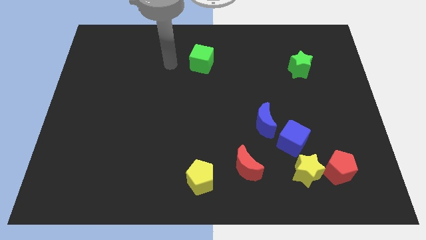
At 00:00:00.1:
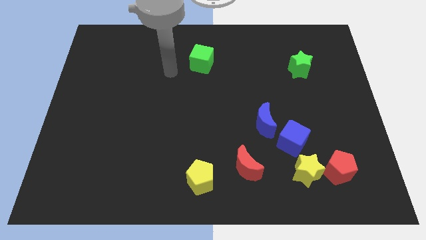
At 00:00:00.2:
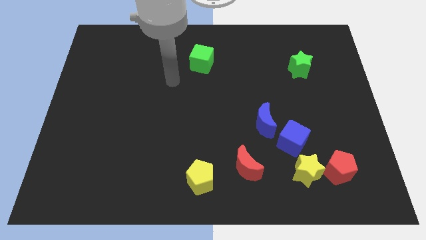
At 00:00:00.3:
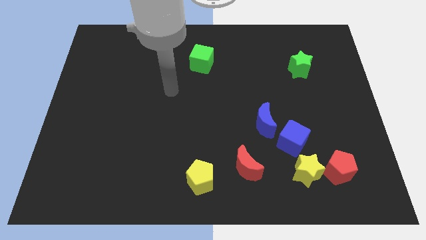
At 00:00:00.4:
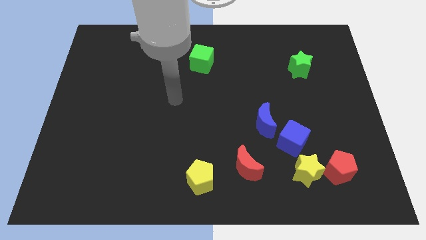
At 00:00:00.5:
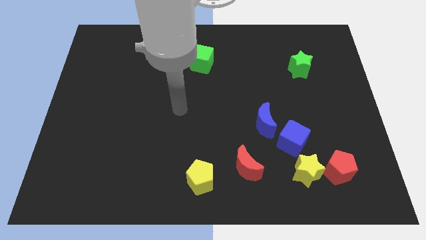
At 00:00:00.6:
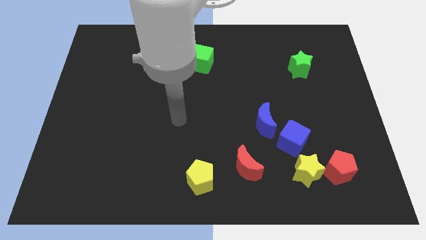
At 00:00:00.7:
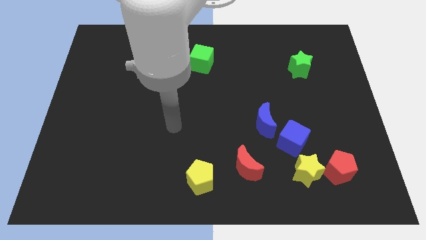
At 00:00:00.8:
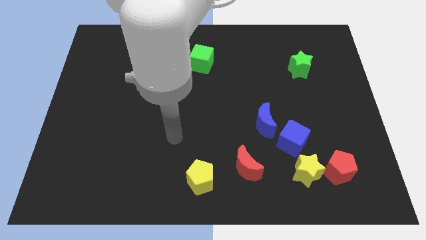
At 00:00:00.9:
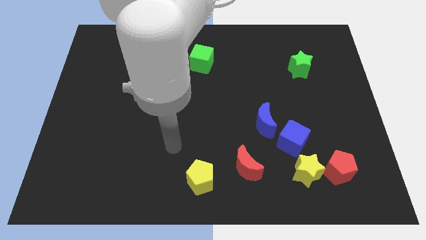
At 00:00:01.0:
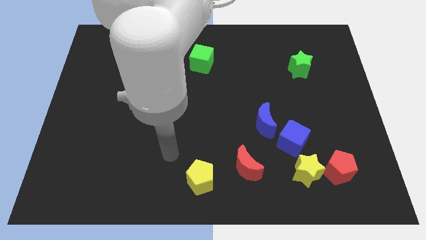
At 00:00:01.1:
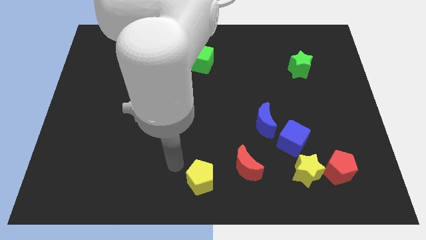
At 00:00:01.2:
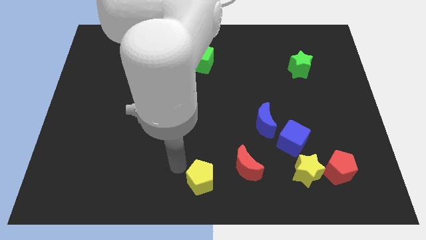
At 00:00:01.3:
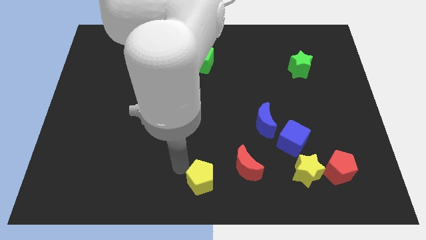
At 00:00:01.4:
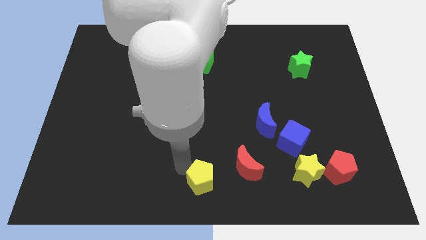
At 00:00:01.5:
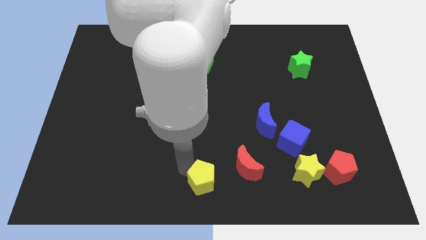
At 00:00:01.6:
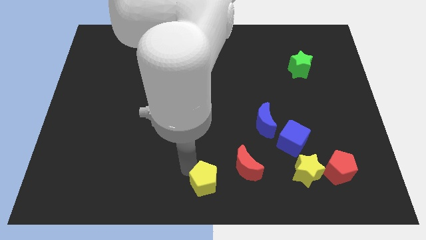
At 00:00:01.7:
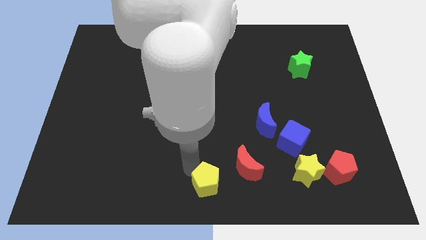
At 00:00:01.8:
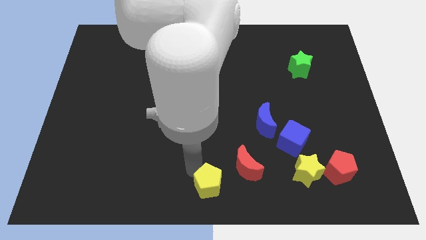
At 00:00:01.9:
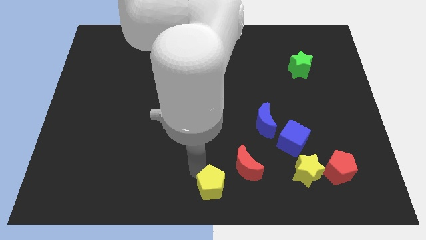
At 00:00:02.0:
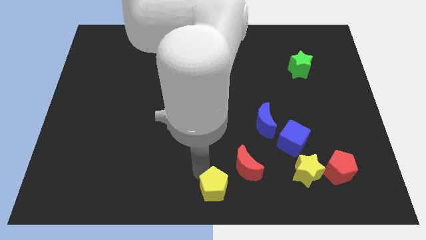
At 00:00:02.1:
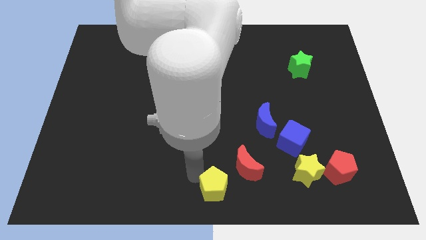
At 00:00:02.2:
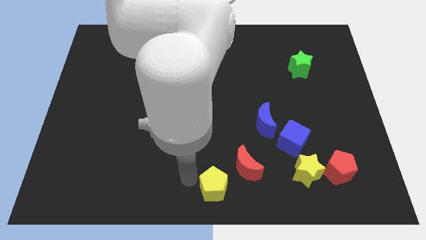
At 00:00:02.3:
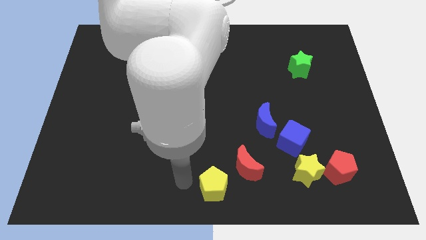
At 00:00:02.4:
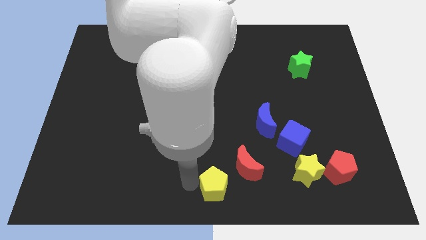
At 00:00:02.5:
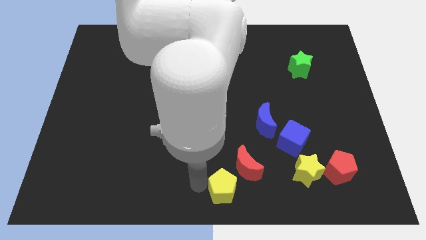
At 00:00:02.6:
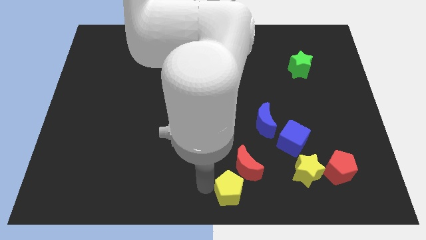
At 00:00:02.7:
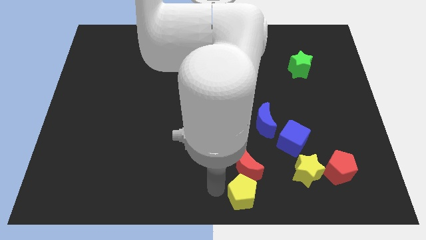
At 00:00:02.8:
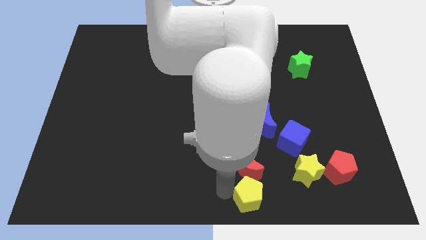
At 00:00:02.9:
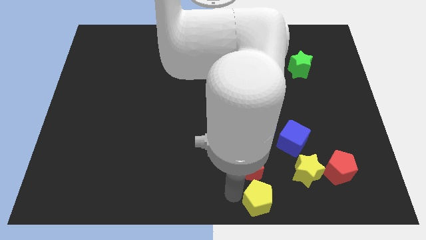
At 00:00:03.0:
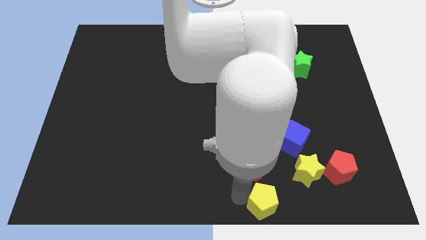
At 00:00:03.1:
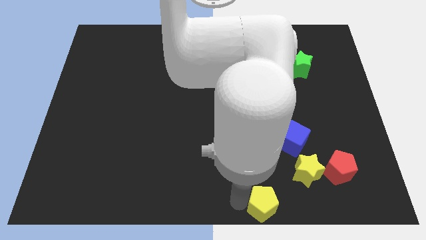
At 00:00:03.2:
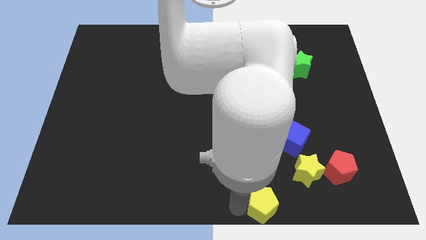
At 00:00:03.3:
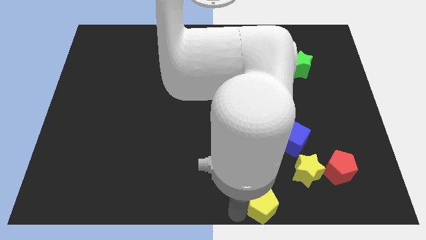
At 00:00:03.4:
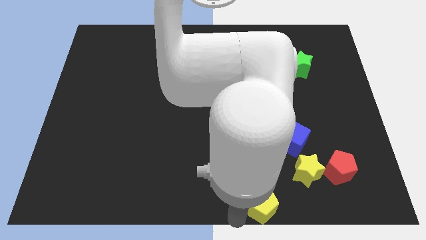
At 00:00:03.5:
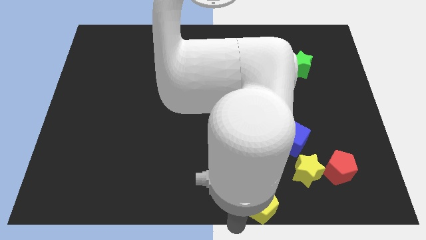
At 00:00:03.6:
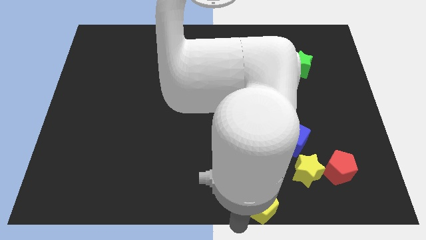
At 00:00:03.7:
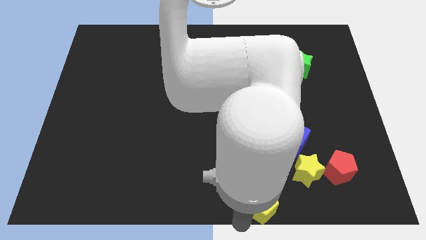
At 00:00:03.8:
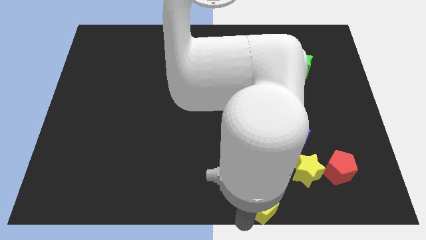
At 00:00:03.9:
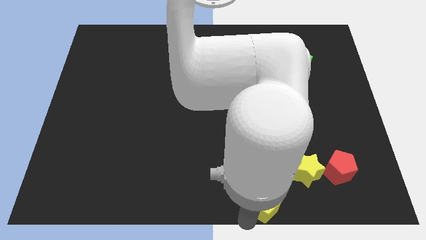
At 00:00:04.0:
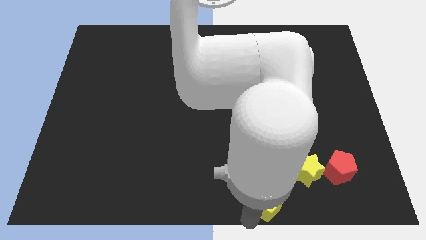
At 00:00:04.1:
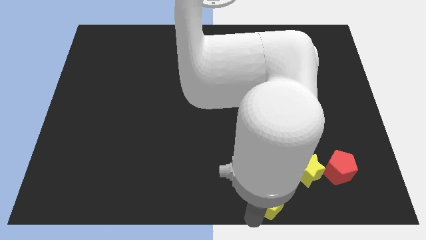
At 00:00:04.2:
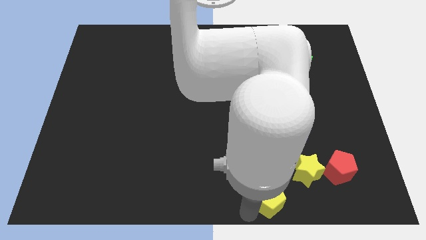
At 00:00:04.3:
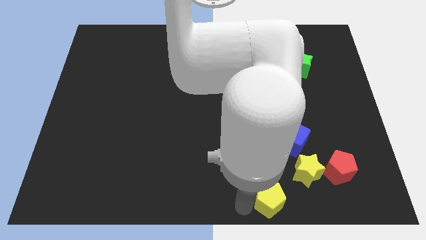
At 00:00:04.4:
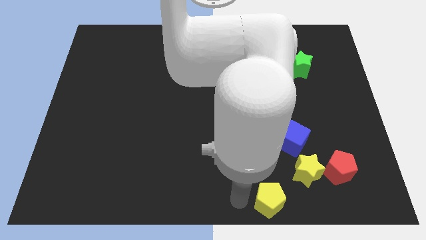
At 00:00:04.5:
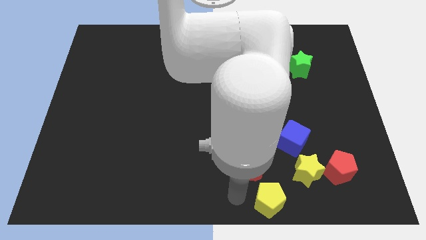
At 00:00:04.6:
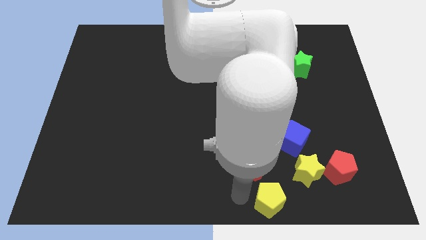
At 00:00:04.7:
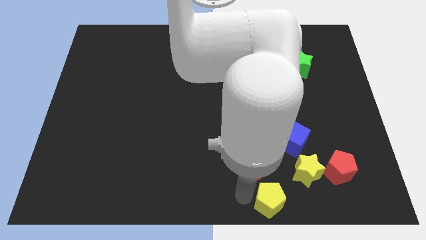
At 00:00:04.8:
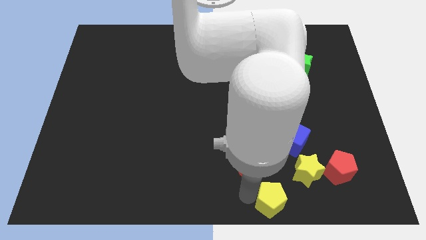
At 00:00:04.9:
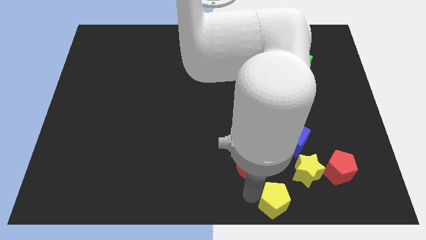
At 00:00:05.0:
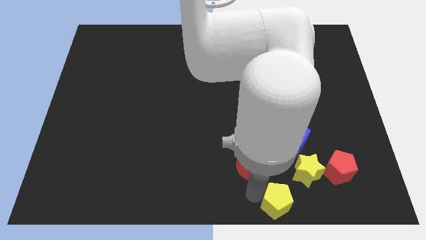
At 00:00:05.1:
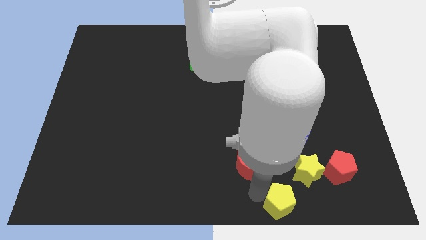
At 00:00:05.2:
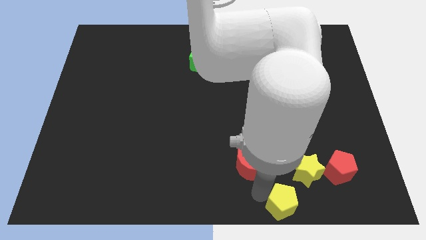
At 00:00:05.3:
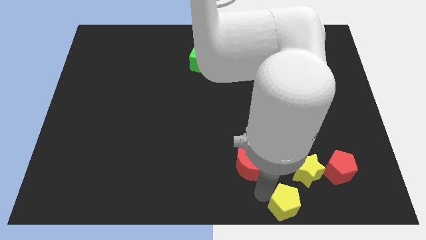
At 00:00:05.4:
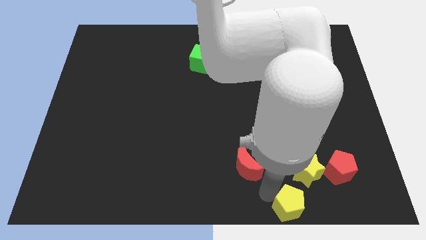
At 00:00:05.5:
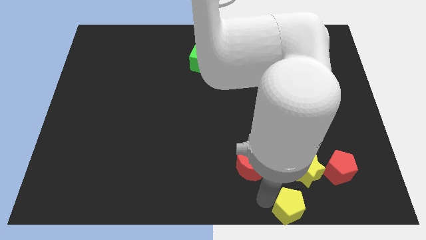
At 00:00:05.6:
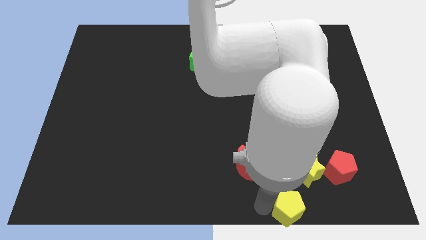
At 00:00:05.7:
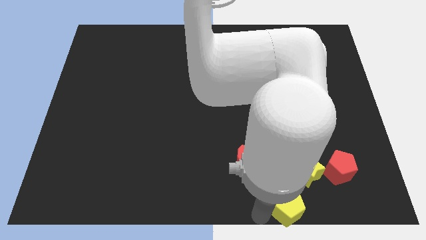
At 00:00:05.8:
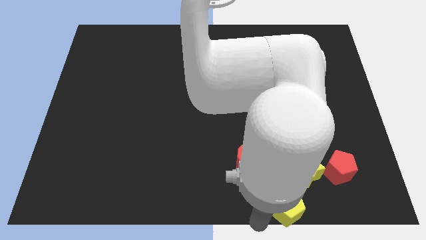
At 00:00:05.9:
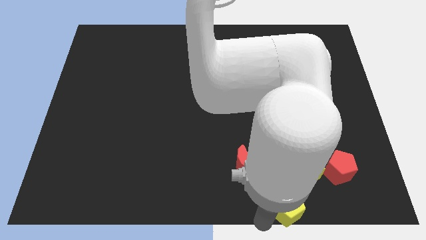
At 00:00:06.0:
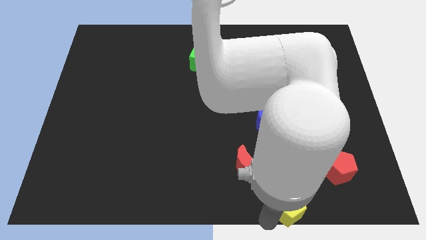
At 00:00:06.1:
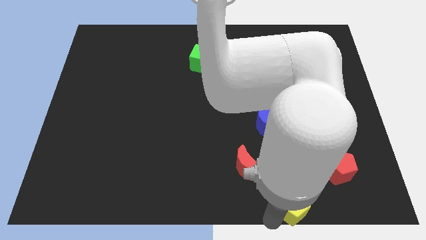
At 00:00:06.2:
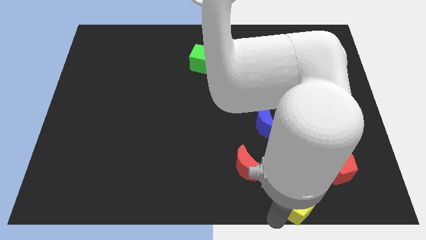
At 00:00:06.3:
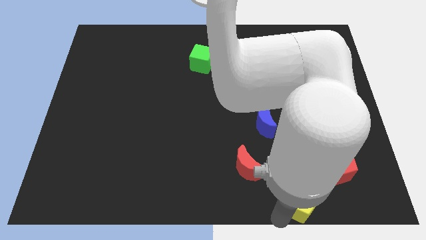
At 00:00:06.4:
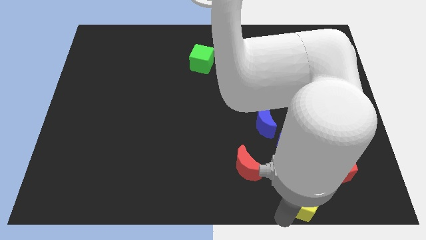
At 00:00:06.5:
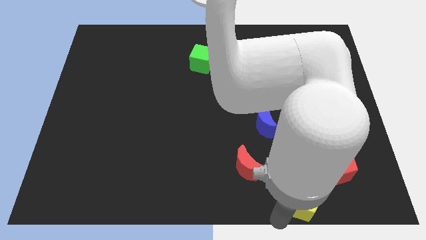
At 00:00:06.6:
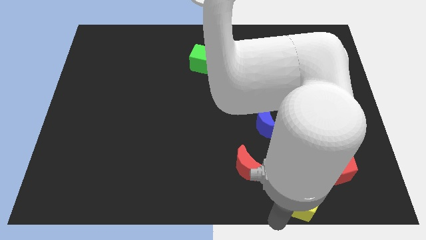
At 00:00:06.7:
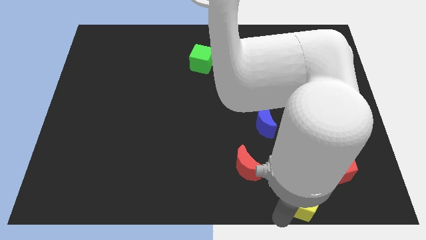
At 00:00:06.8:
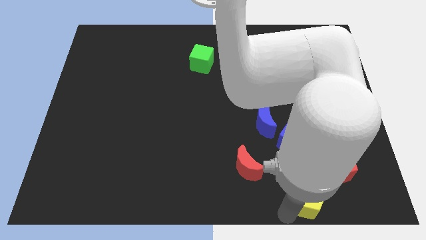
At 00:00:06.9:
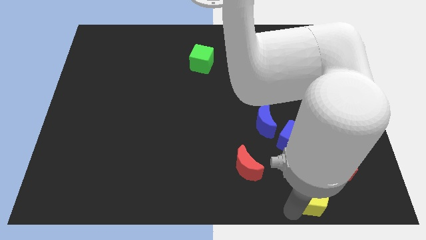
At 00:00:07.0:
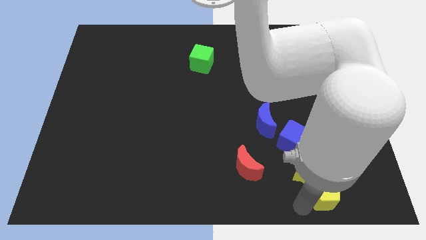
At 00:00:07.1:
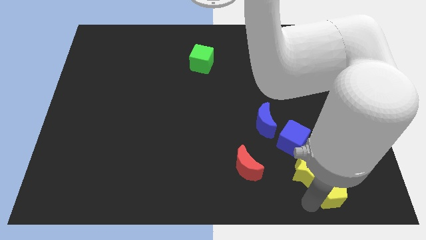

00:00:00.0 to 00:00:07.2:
put the yellow pentagon next to the red pentagon
